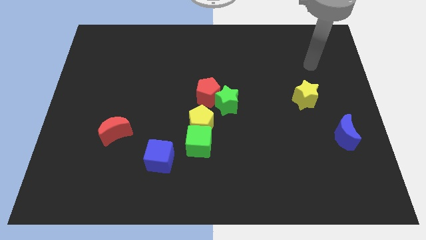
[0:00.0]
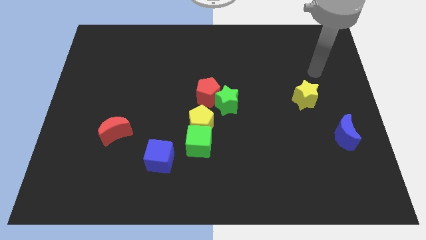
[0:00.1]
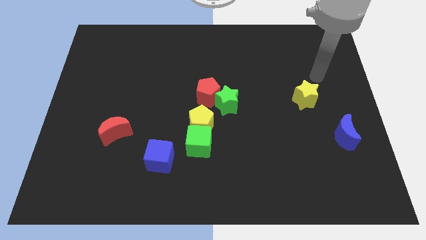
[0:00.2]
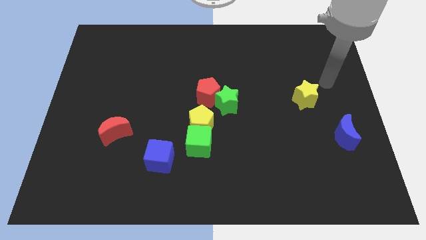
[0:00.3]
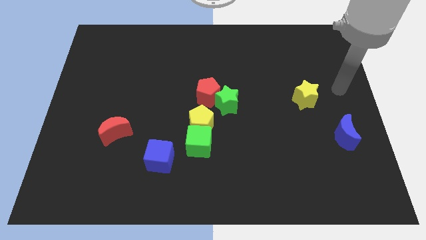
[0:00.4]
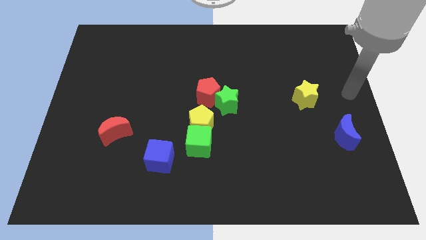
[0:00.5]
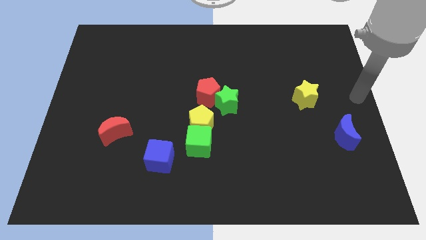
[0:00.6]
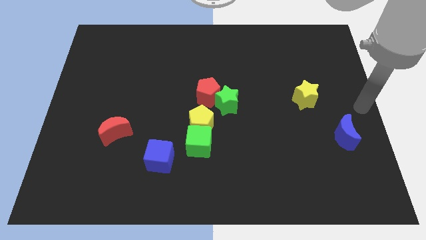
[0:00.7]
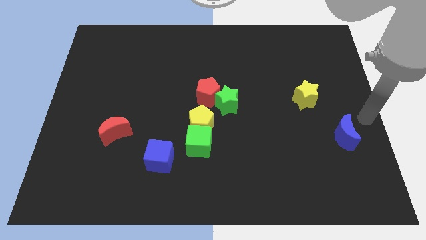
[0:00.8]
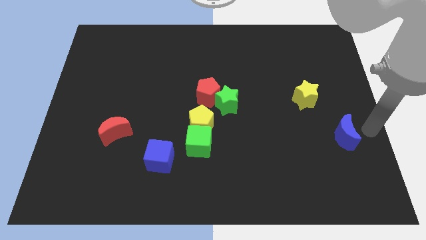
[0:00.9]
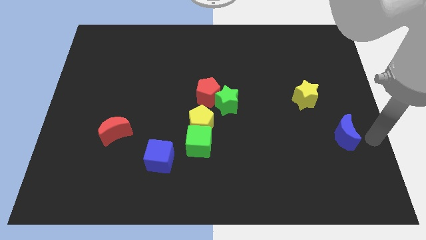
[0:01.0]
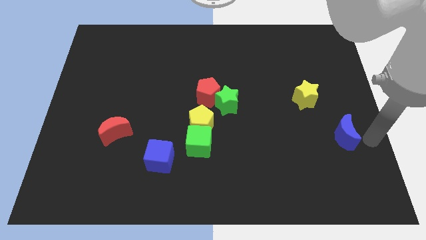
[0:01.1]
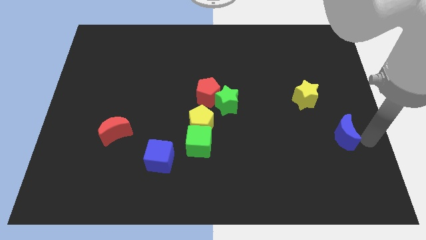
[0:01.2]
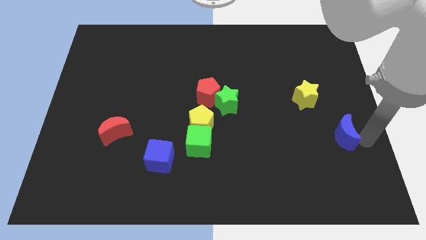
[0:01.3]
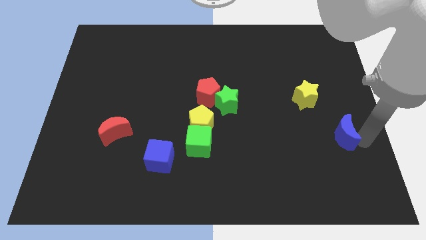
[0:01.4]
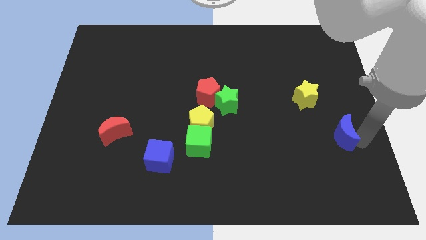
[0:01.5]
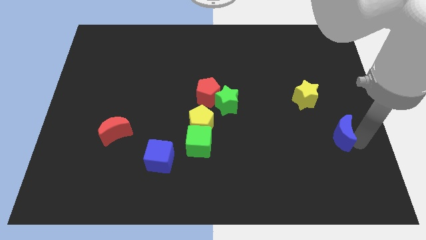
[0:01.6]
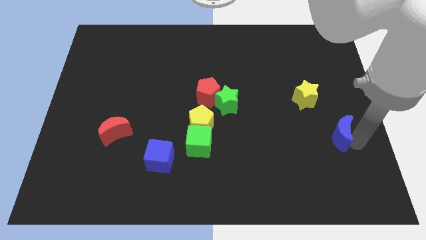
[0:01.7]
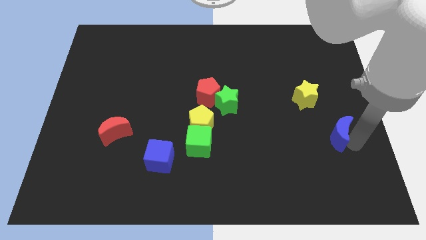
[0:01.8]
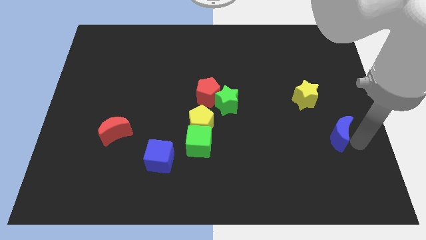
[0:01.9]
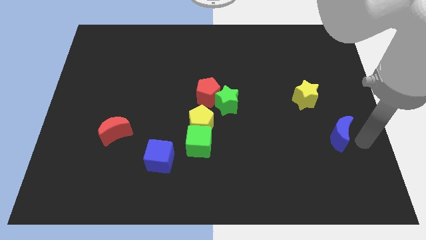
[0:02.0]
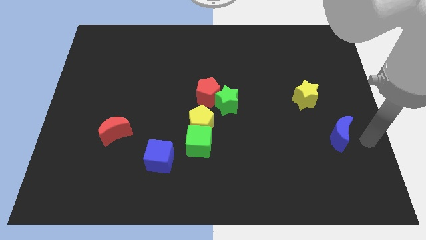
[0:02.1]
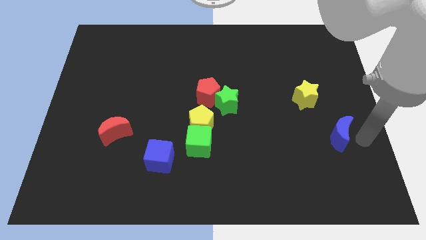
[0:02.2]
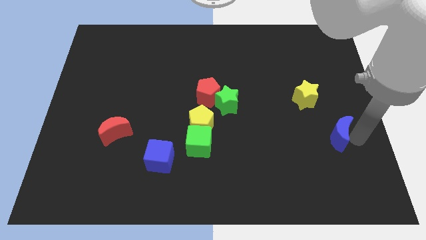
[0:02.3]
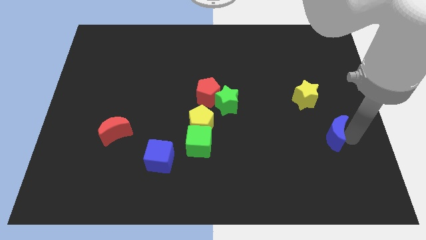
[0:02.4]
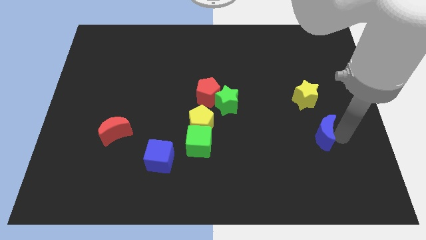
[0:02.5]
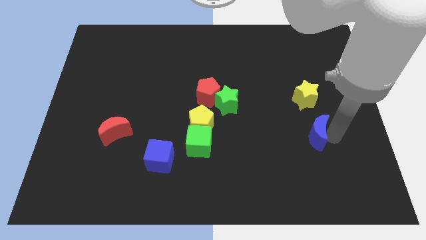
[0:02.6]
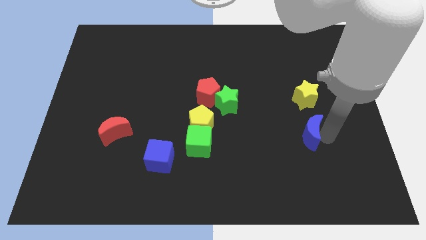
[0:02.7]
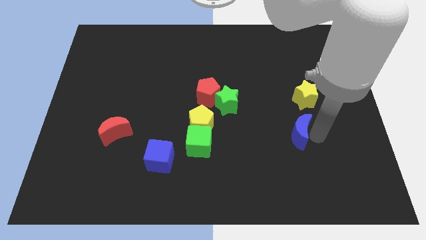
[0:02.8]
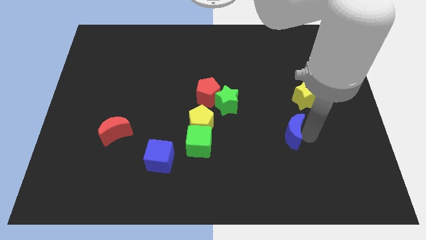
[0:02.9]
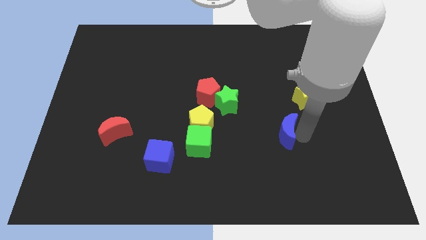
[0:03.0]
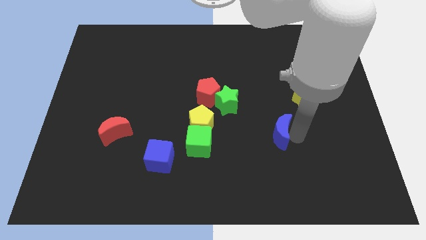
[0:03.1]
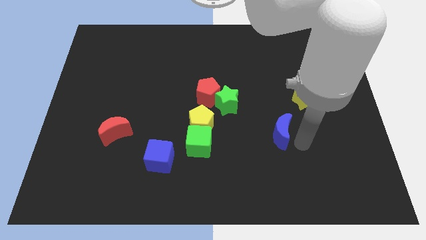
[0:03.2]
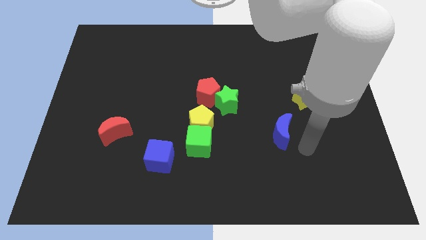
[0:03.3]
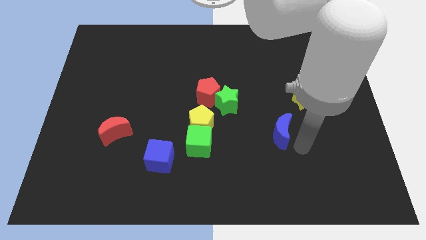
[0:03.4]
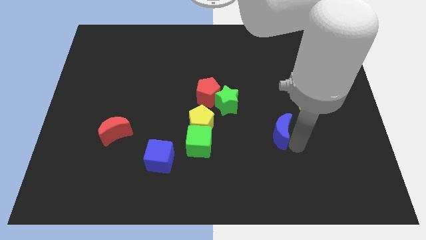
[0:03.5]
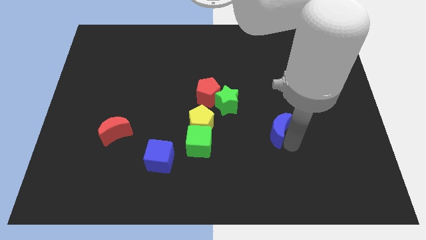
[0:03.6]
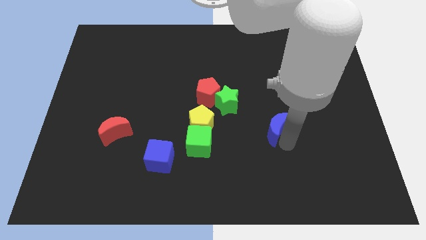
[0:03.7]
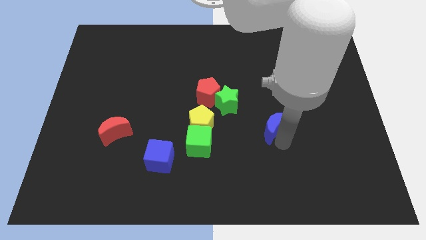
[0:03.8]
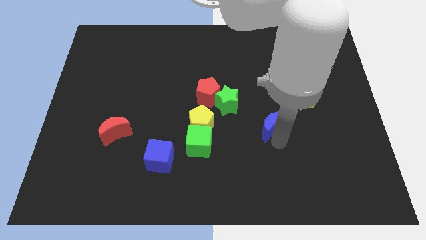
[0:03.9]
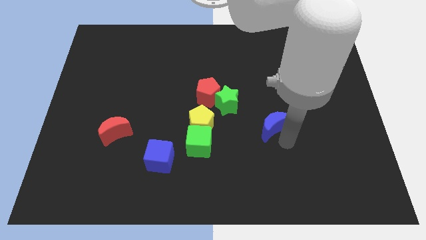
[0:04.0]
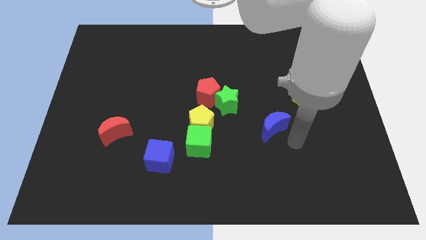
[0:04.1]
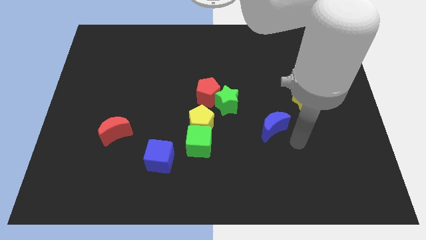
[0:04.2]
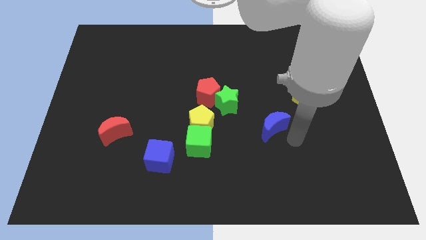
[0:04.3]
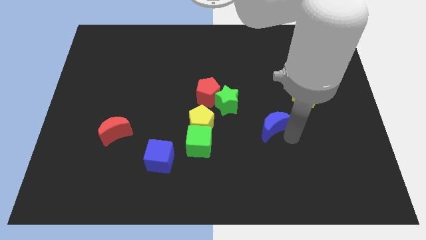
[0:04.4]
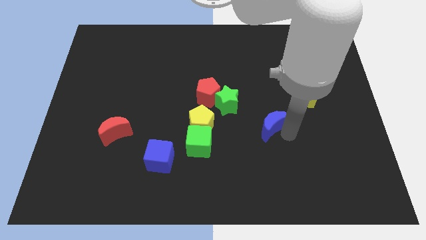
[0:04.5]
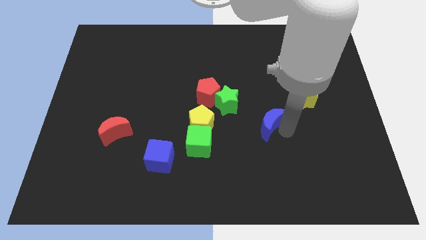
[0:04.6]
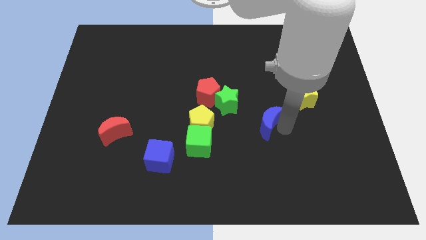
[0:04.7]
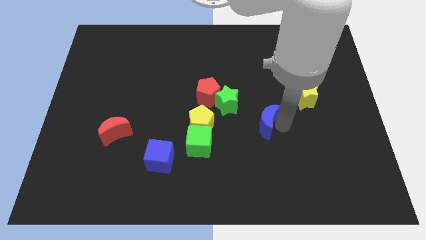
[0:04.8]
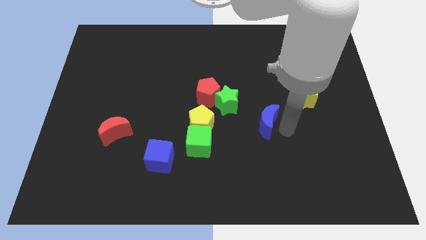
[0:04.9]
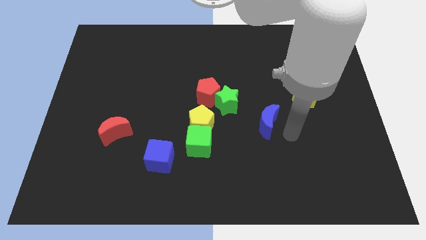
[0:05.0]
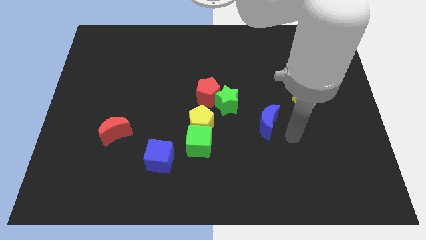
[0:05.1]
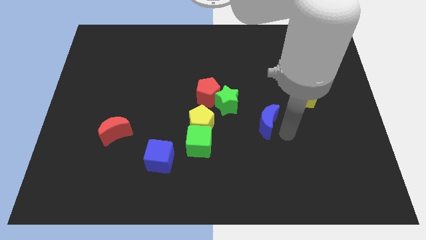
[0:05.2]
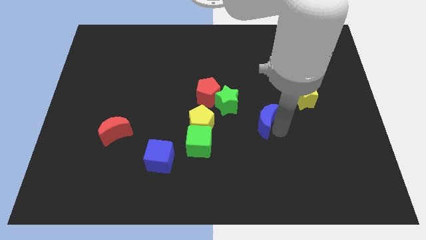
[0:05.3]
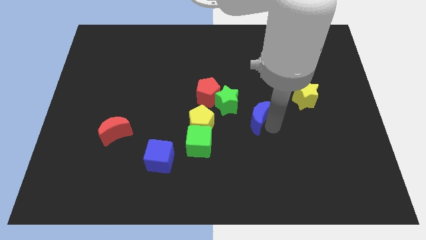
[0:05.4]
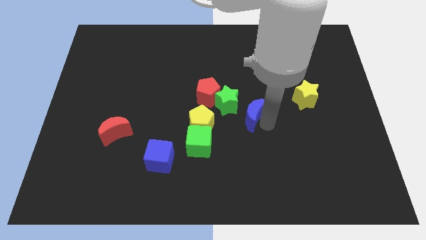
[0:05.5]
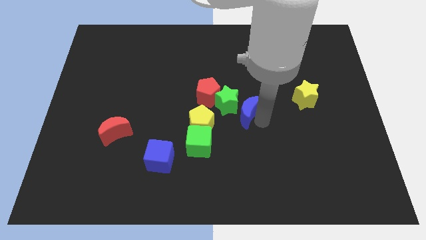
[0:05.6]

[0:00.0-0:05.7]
move the blue moon towards the green star
